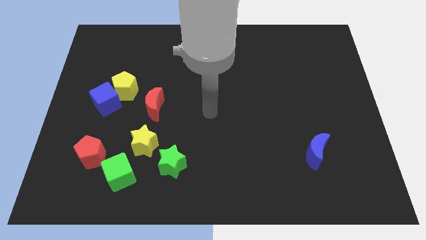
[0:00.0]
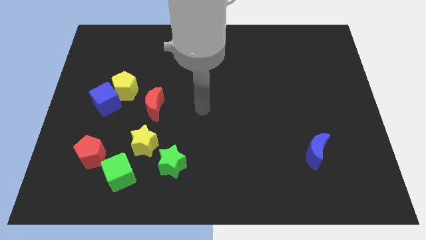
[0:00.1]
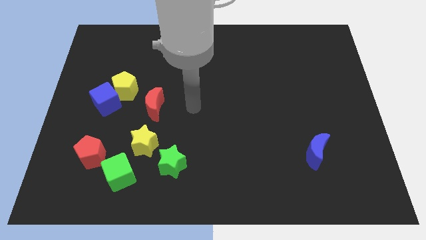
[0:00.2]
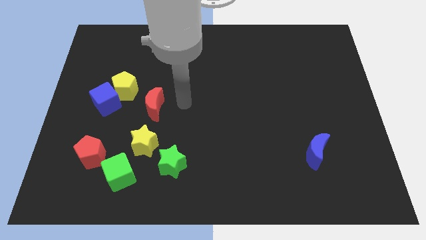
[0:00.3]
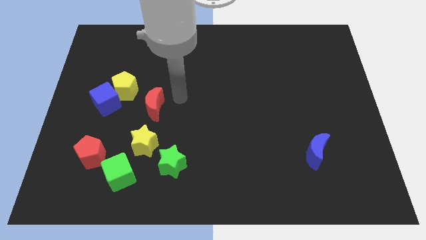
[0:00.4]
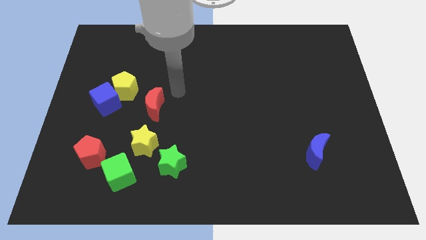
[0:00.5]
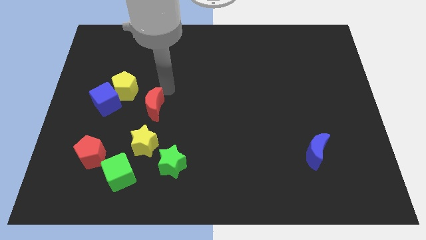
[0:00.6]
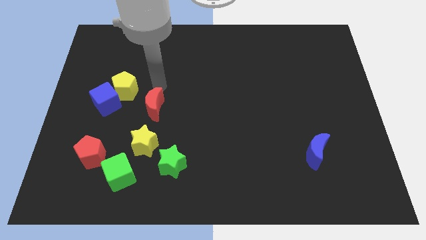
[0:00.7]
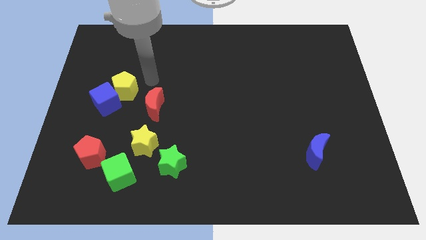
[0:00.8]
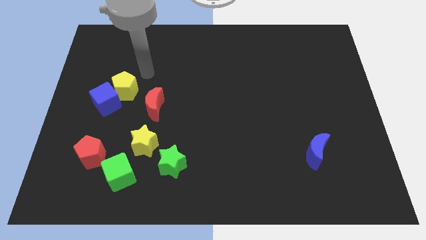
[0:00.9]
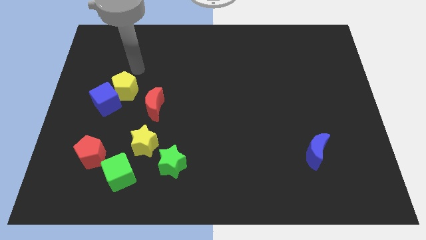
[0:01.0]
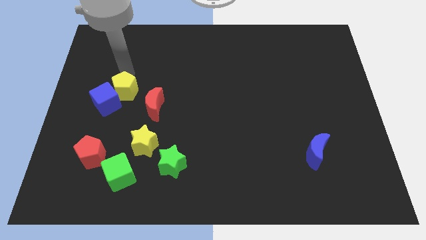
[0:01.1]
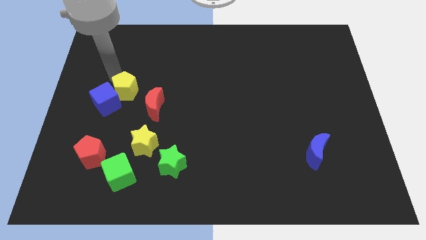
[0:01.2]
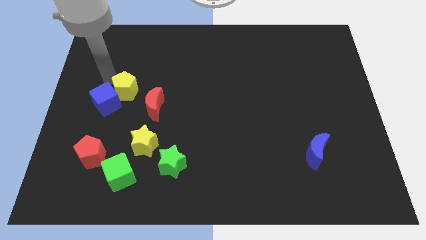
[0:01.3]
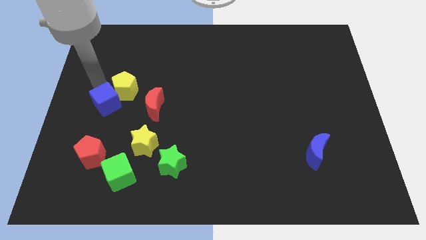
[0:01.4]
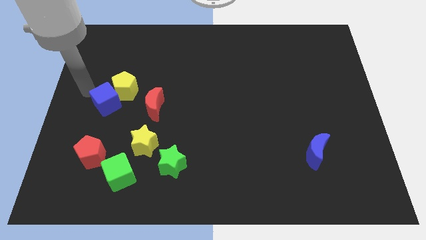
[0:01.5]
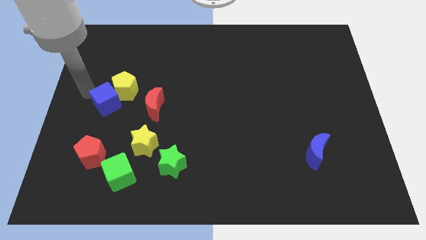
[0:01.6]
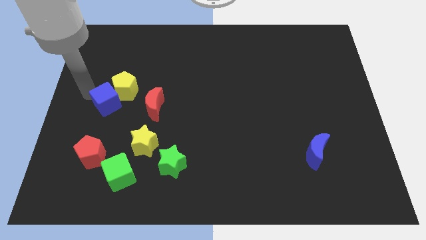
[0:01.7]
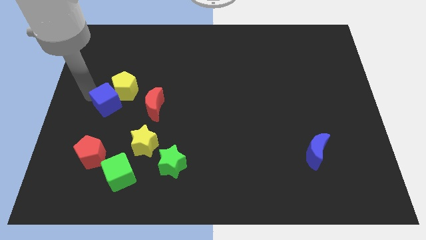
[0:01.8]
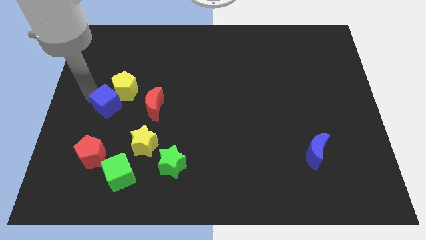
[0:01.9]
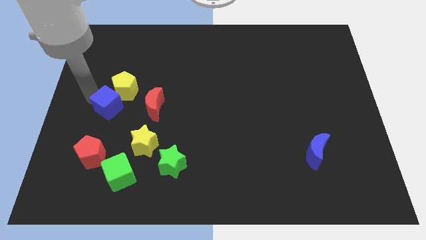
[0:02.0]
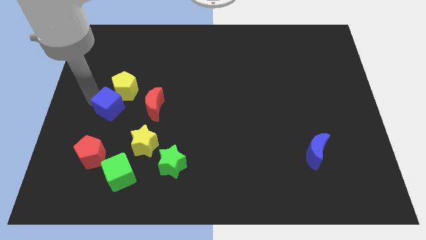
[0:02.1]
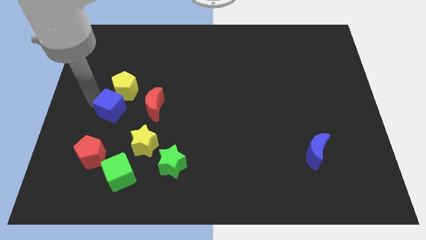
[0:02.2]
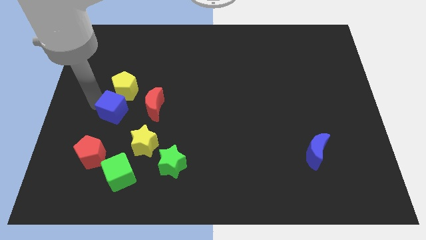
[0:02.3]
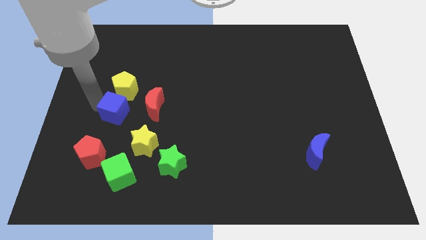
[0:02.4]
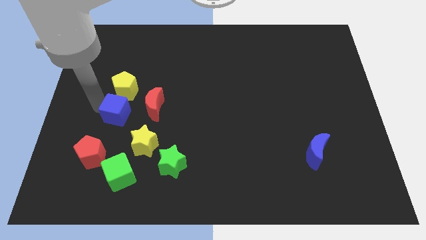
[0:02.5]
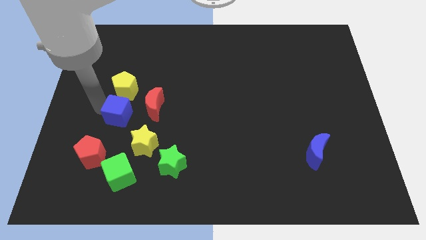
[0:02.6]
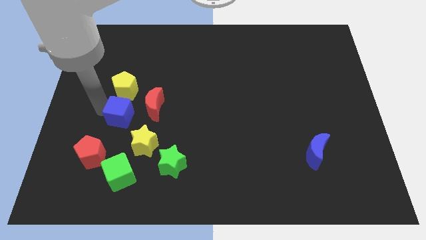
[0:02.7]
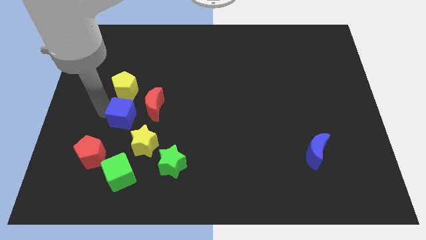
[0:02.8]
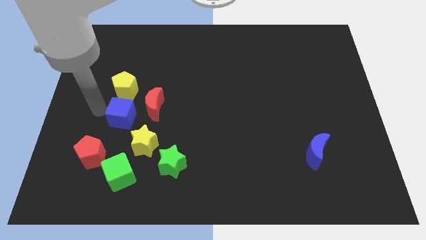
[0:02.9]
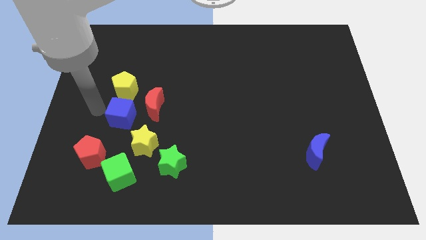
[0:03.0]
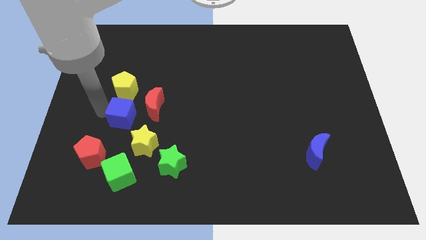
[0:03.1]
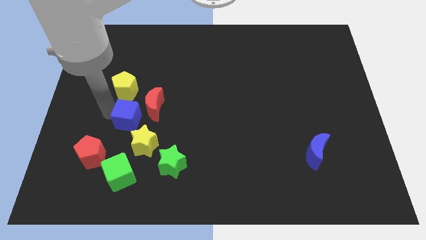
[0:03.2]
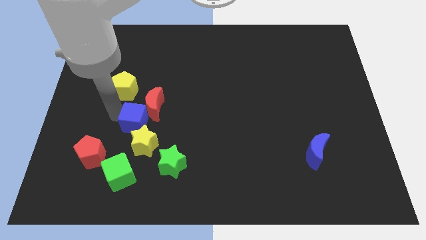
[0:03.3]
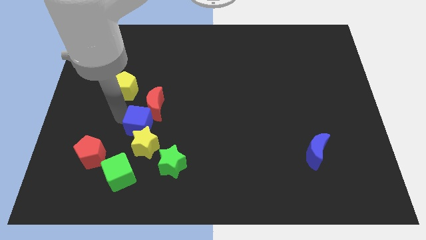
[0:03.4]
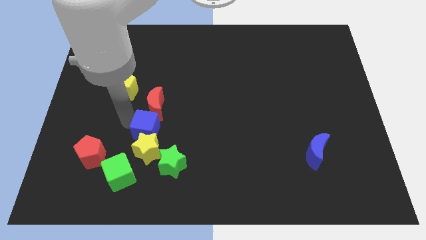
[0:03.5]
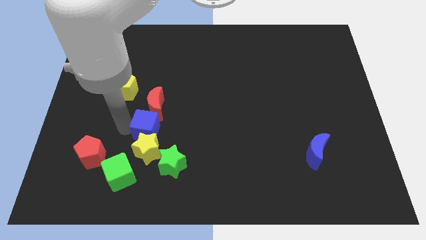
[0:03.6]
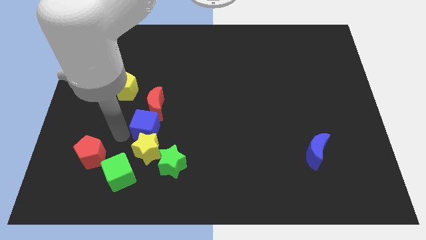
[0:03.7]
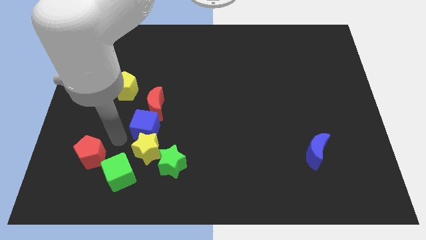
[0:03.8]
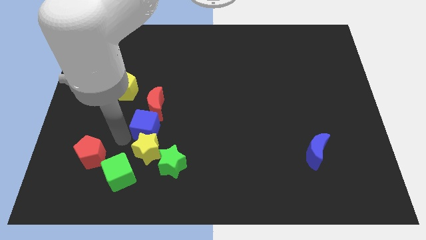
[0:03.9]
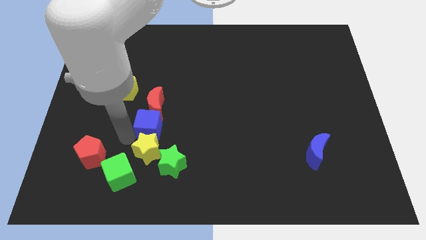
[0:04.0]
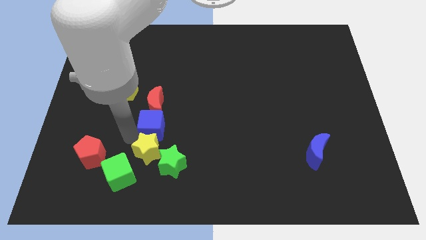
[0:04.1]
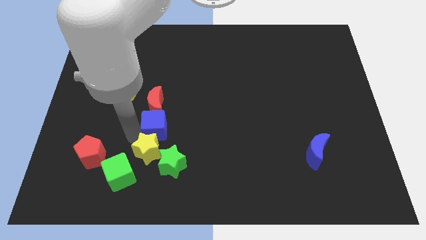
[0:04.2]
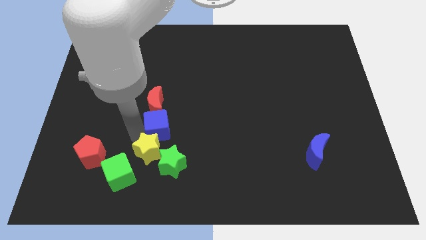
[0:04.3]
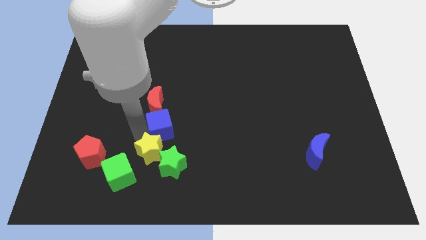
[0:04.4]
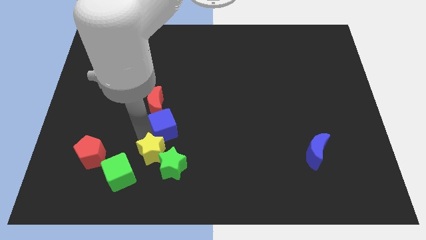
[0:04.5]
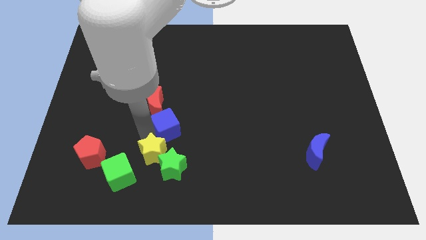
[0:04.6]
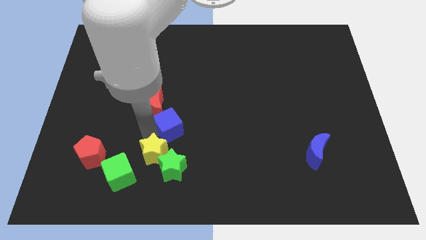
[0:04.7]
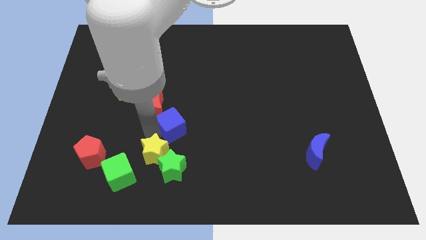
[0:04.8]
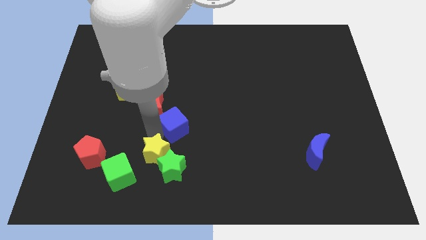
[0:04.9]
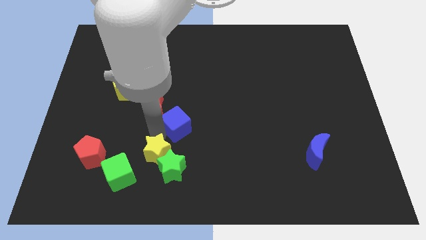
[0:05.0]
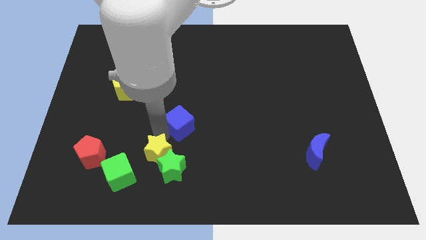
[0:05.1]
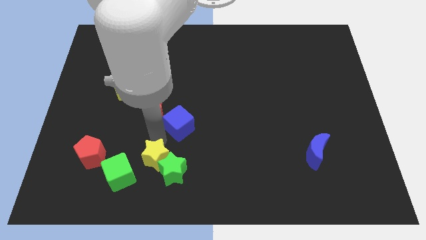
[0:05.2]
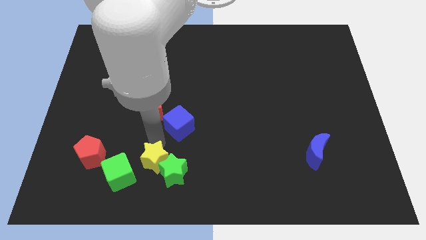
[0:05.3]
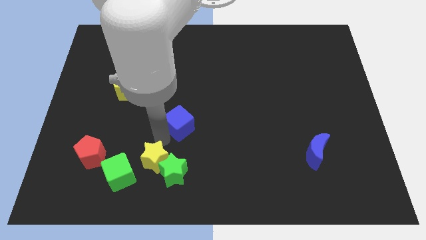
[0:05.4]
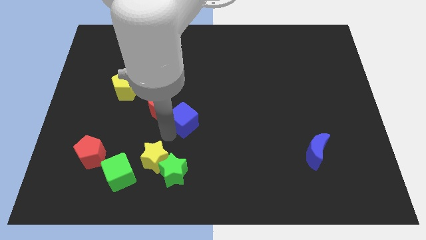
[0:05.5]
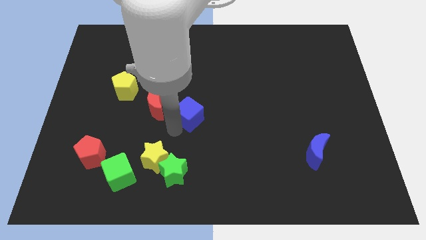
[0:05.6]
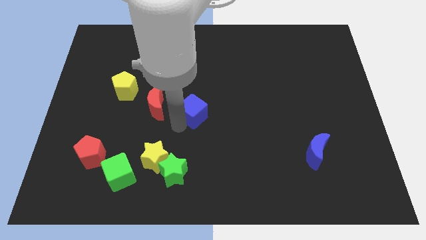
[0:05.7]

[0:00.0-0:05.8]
slide the blue cube to the right

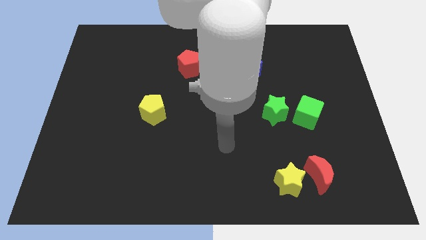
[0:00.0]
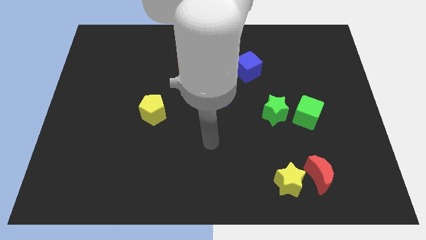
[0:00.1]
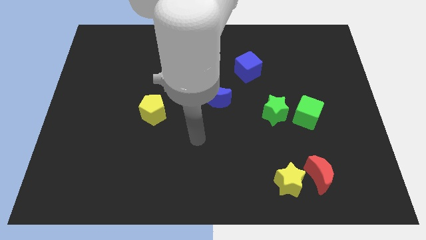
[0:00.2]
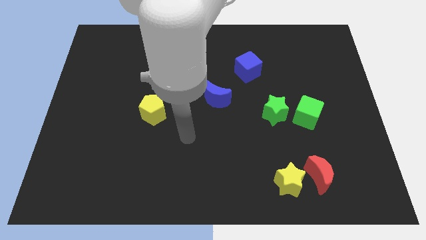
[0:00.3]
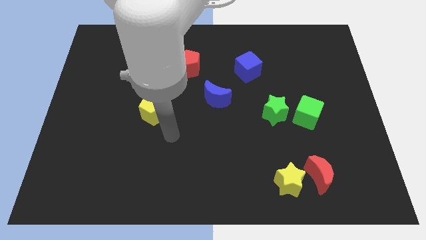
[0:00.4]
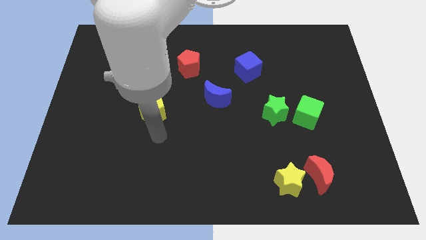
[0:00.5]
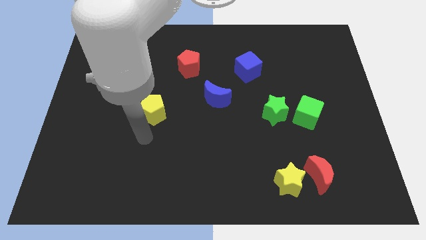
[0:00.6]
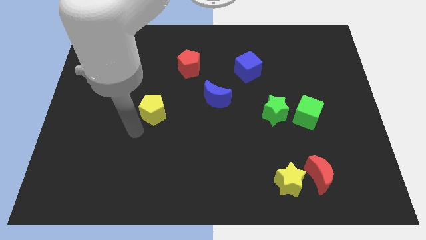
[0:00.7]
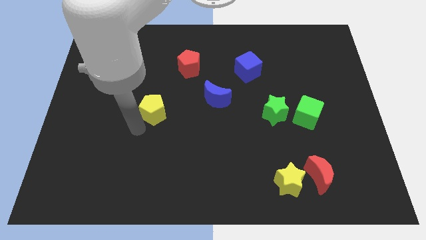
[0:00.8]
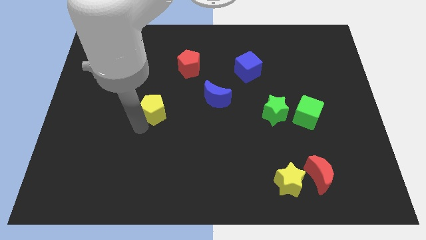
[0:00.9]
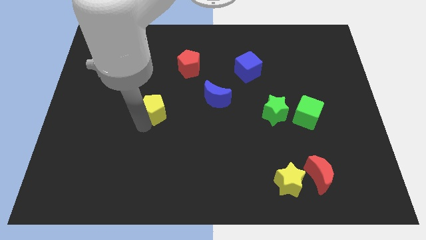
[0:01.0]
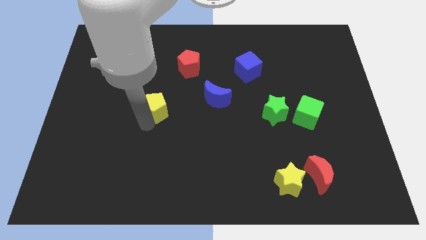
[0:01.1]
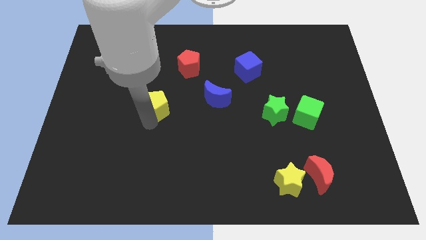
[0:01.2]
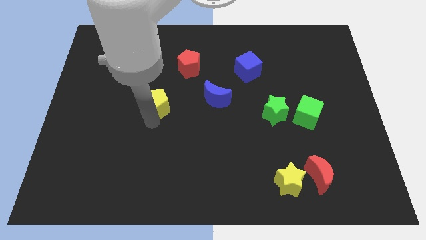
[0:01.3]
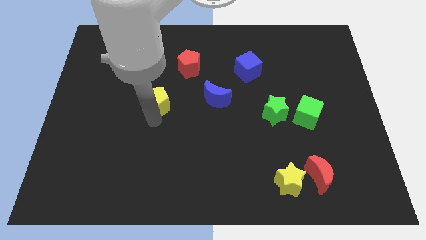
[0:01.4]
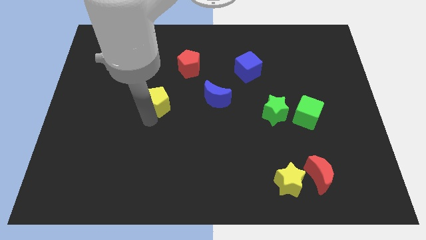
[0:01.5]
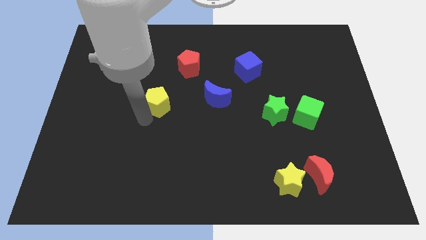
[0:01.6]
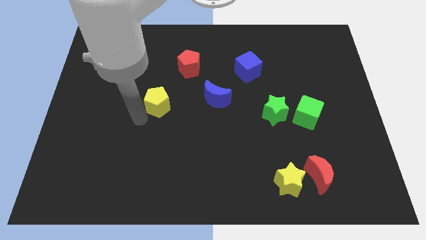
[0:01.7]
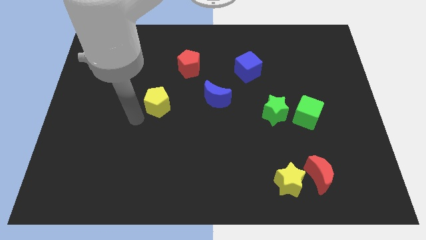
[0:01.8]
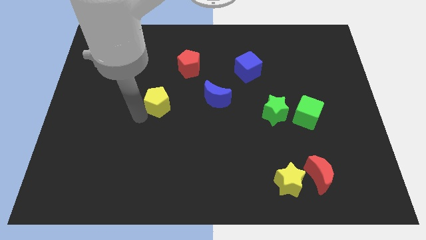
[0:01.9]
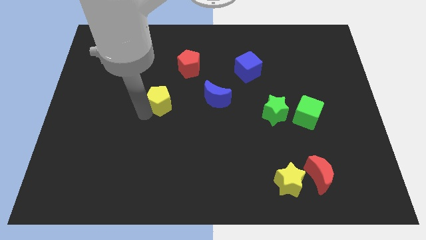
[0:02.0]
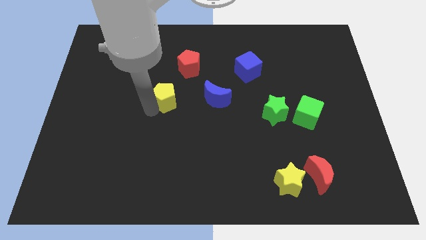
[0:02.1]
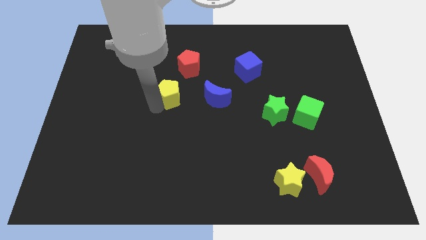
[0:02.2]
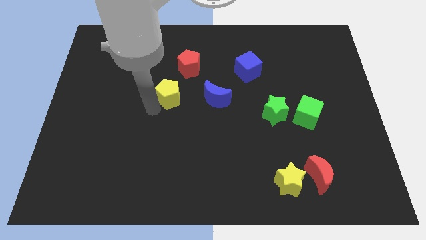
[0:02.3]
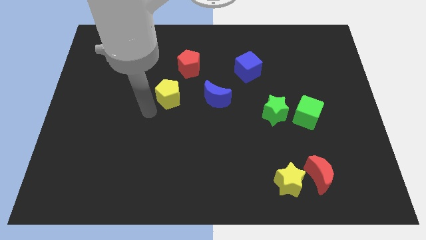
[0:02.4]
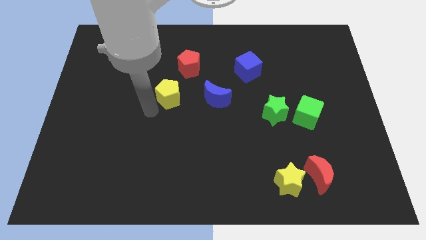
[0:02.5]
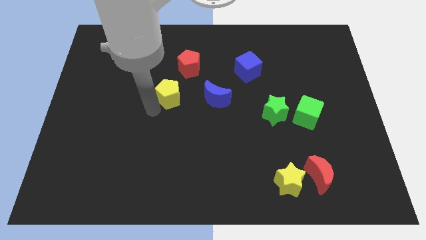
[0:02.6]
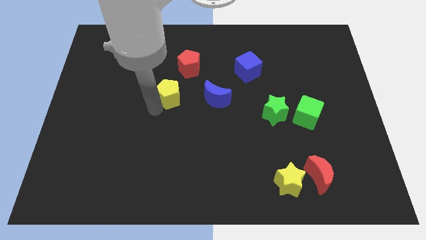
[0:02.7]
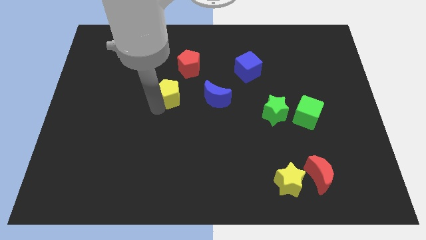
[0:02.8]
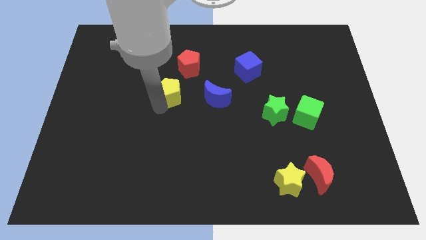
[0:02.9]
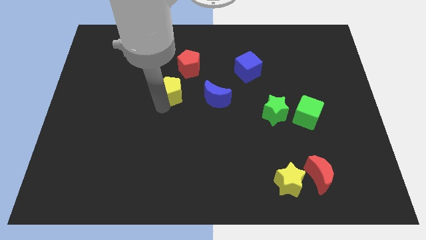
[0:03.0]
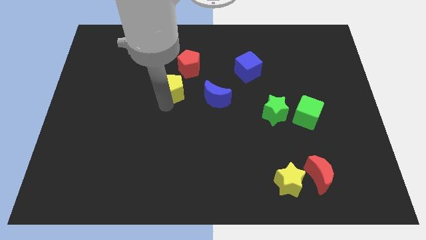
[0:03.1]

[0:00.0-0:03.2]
slightly slide the yellow pentagon upwards and then to the right
